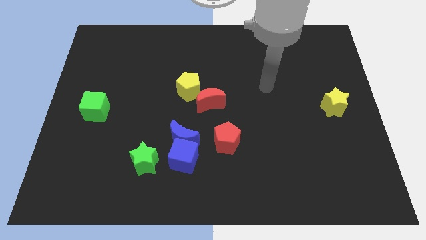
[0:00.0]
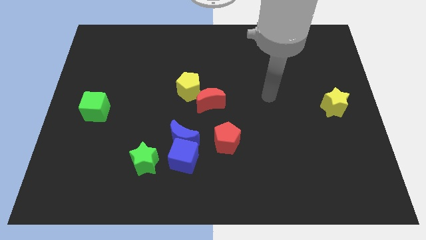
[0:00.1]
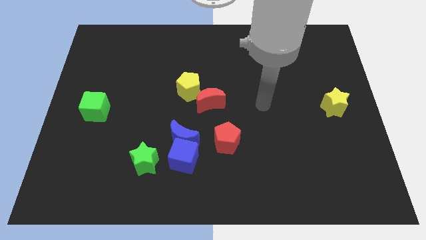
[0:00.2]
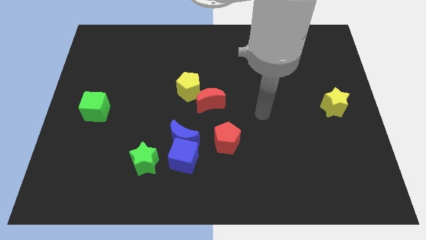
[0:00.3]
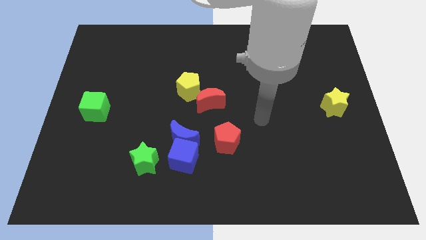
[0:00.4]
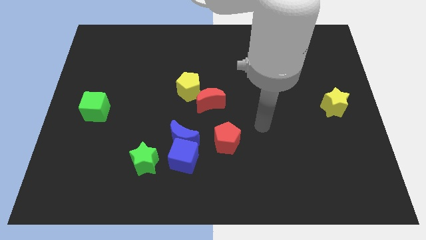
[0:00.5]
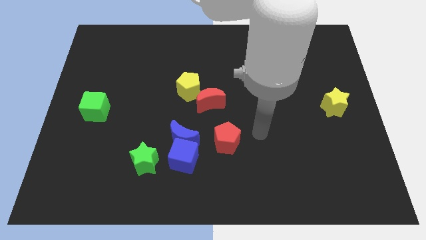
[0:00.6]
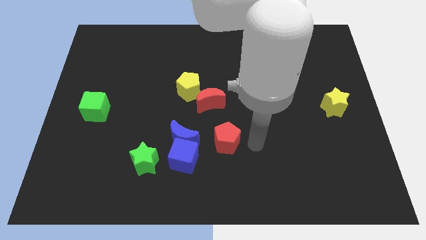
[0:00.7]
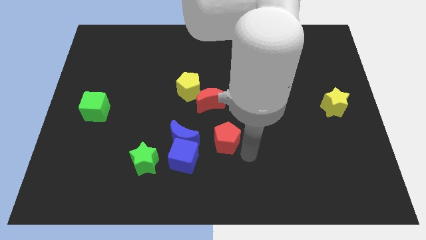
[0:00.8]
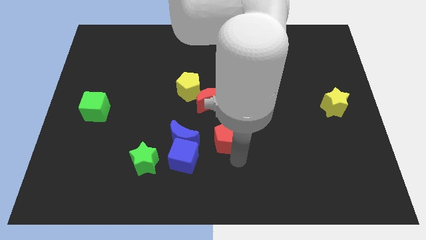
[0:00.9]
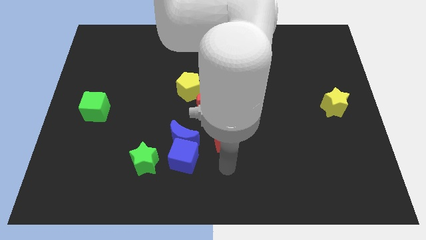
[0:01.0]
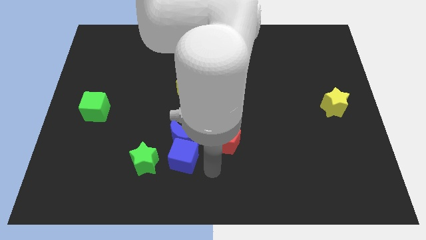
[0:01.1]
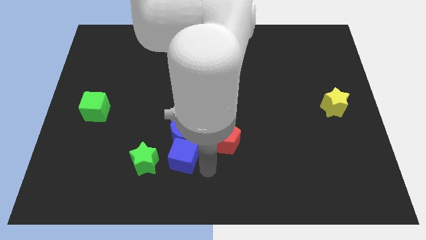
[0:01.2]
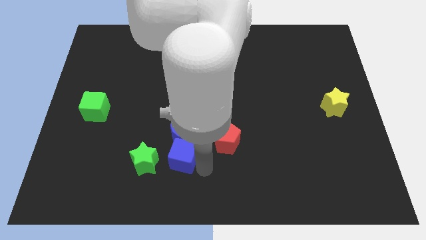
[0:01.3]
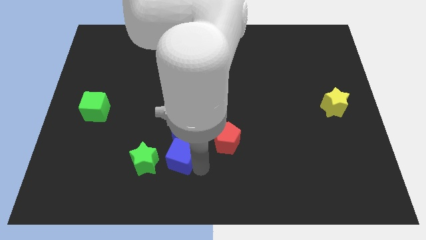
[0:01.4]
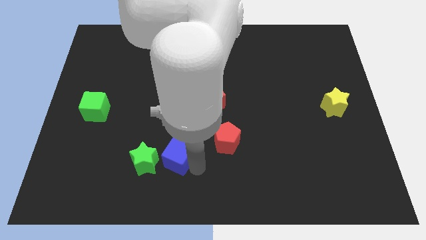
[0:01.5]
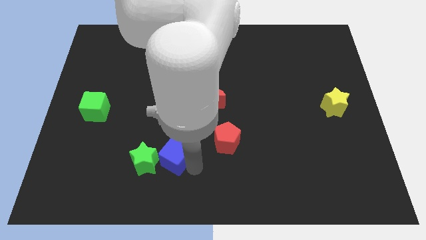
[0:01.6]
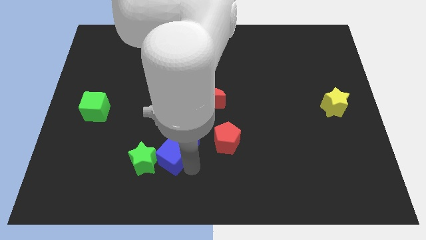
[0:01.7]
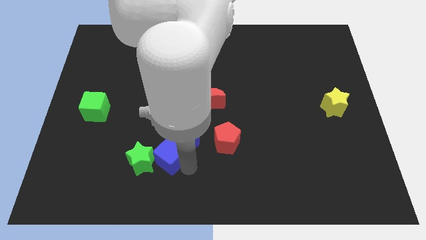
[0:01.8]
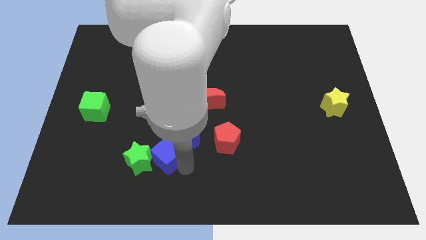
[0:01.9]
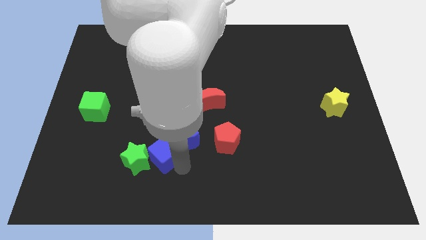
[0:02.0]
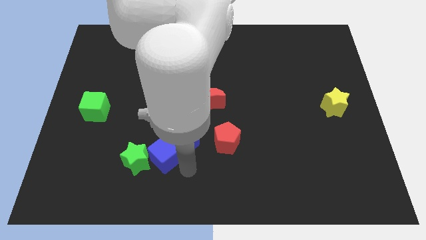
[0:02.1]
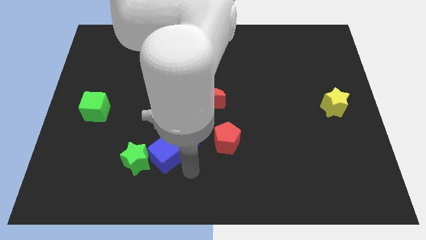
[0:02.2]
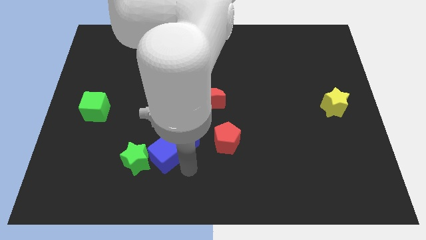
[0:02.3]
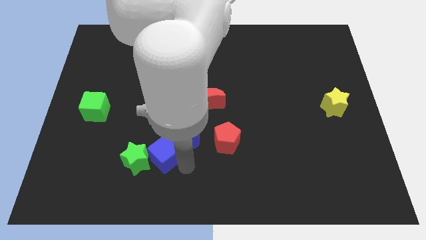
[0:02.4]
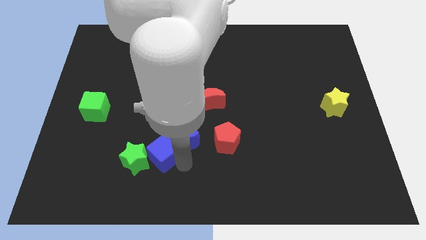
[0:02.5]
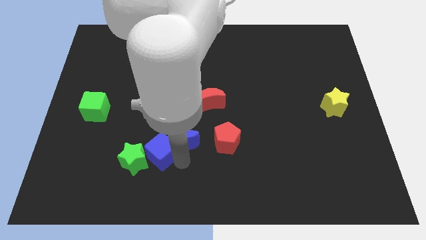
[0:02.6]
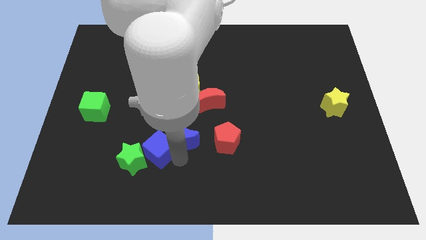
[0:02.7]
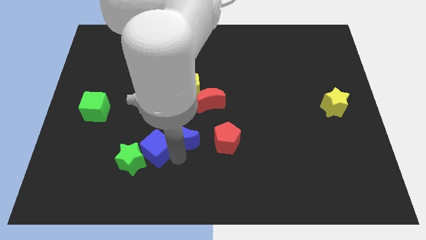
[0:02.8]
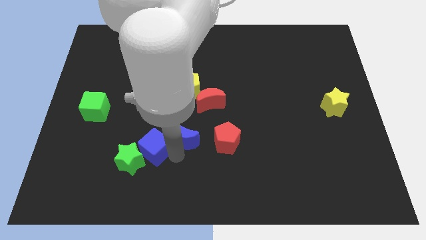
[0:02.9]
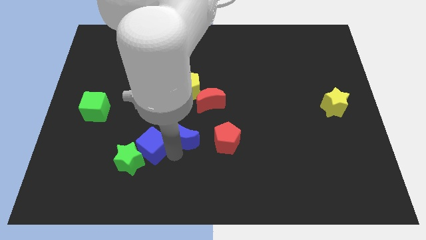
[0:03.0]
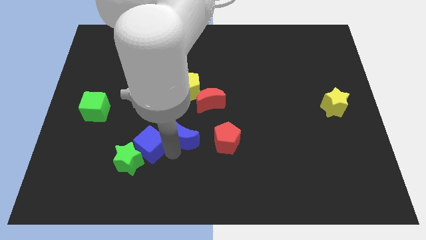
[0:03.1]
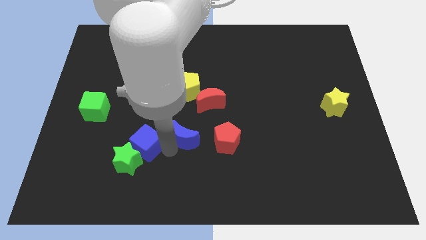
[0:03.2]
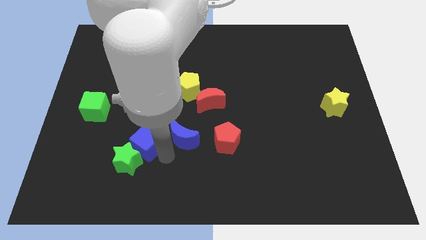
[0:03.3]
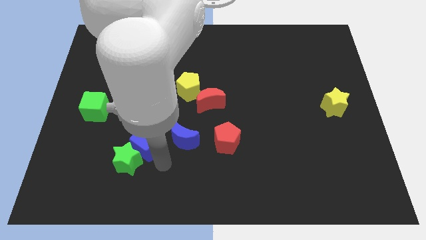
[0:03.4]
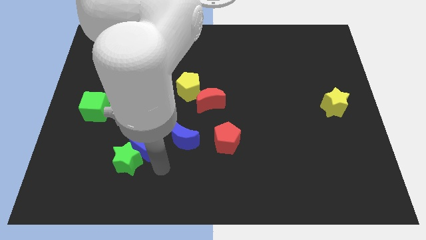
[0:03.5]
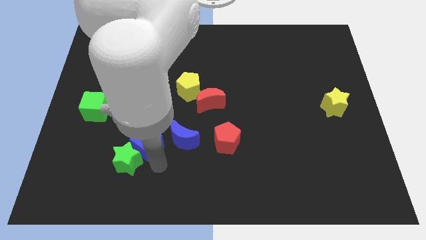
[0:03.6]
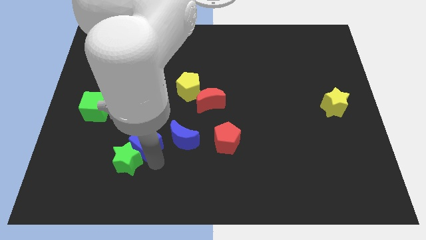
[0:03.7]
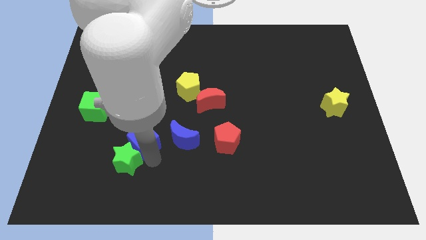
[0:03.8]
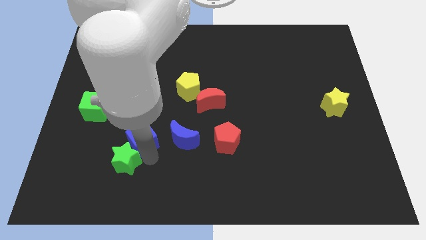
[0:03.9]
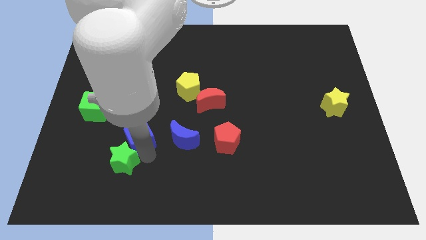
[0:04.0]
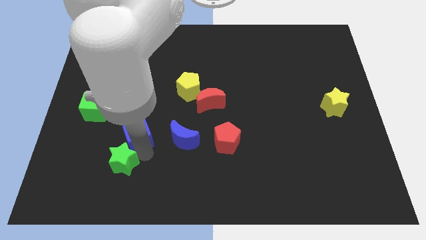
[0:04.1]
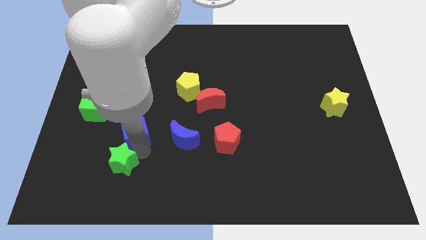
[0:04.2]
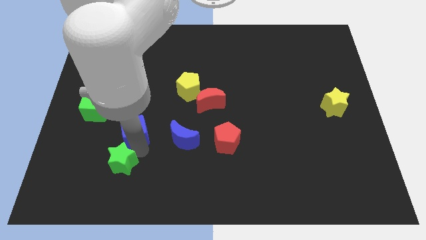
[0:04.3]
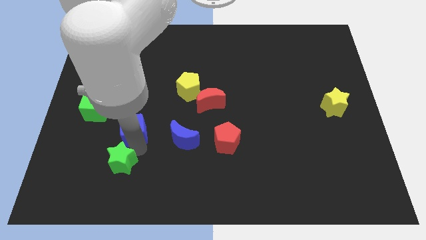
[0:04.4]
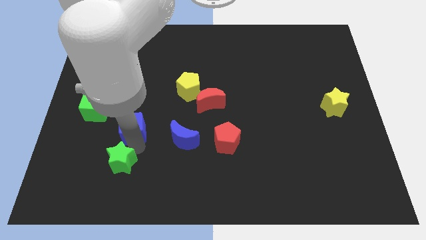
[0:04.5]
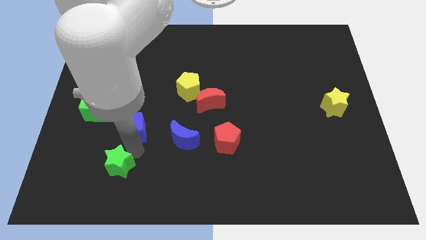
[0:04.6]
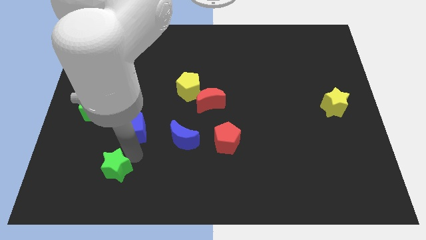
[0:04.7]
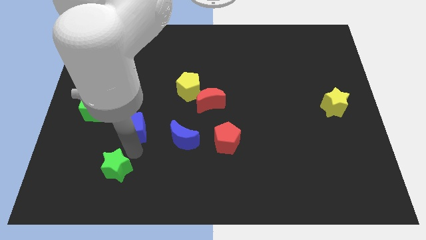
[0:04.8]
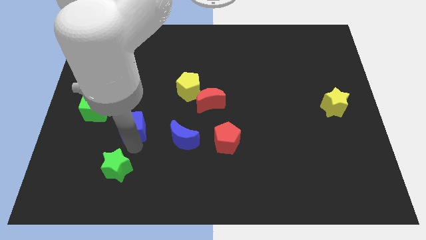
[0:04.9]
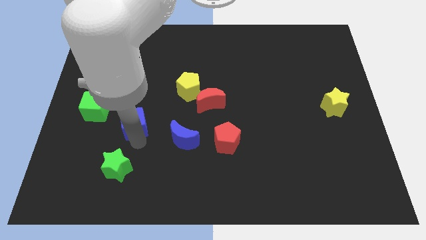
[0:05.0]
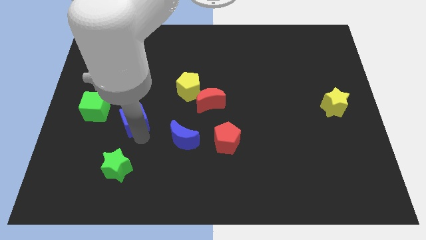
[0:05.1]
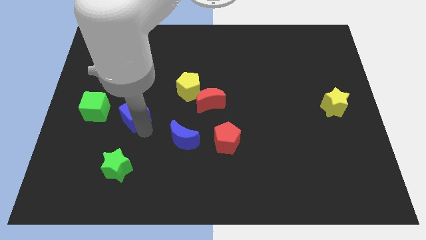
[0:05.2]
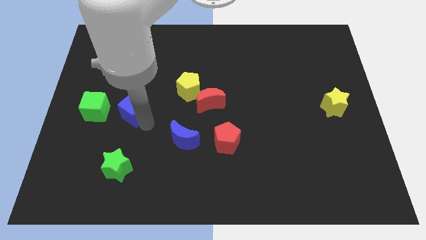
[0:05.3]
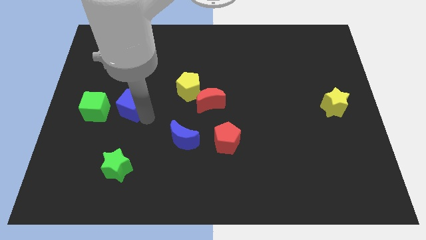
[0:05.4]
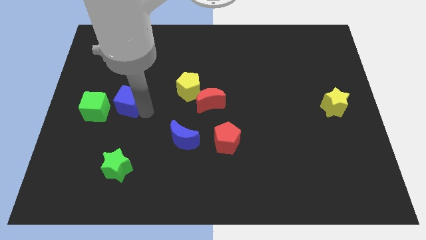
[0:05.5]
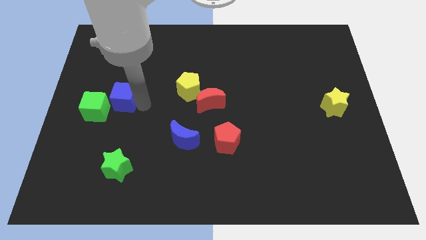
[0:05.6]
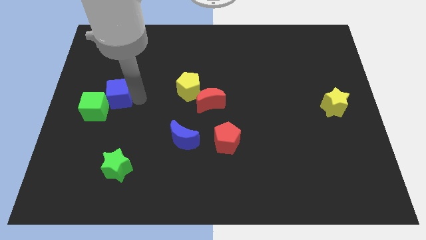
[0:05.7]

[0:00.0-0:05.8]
put the blue cube close to the green cube

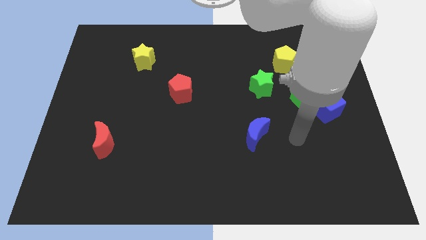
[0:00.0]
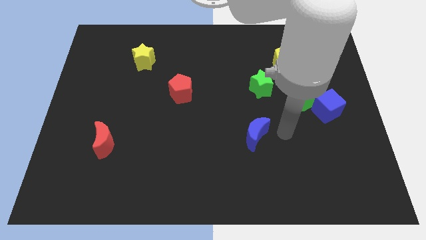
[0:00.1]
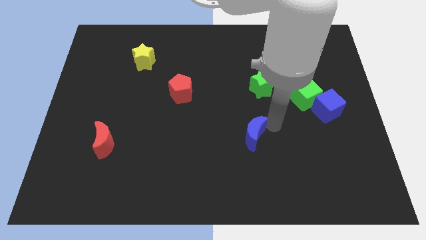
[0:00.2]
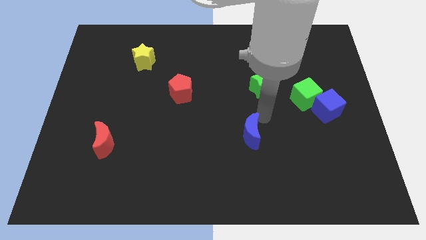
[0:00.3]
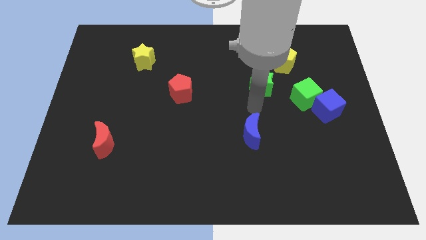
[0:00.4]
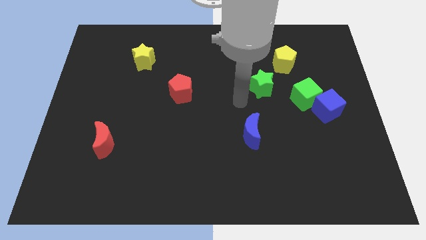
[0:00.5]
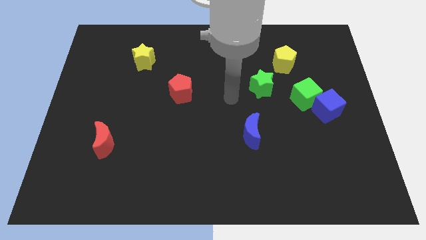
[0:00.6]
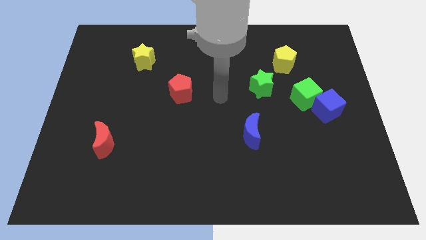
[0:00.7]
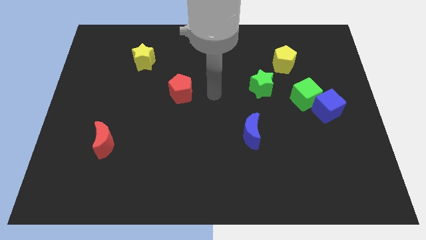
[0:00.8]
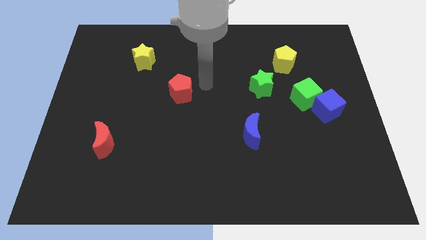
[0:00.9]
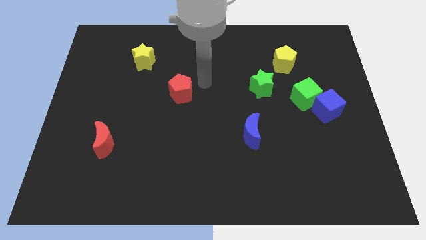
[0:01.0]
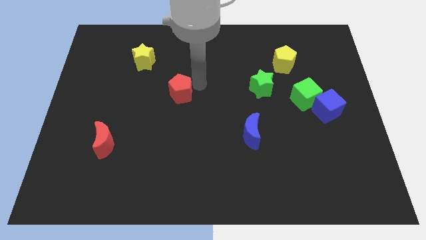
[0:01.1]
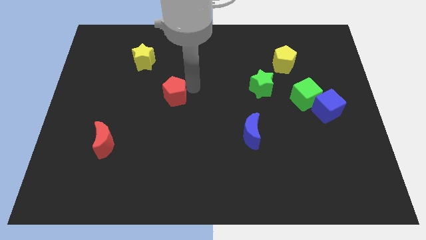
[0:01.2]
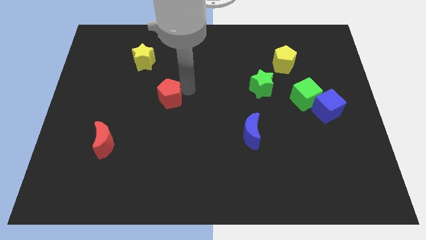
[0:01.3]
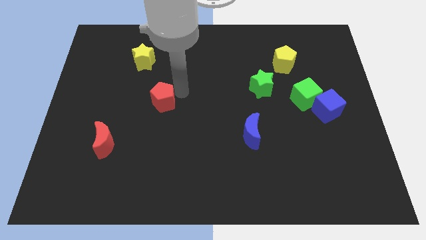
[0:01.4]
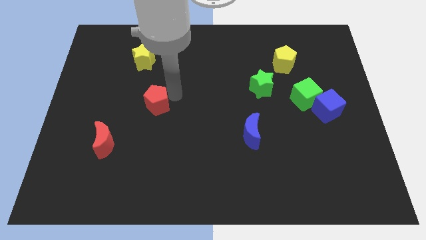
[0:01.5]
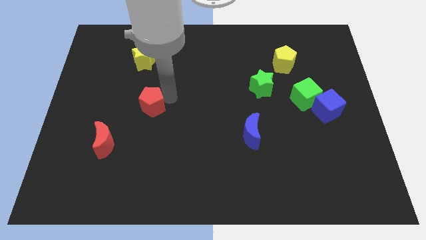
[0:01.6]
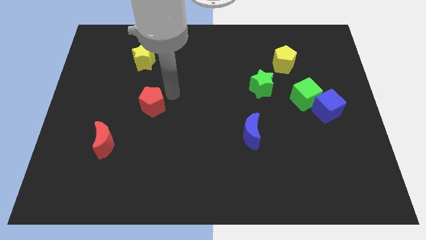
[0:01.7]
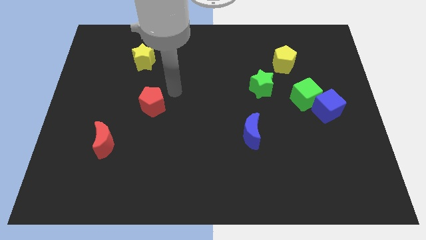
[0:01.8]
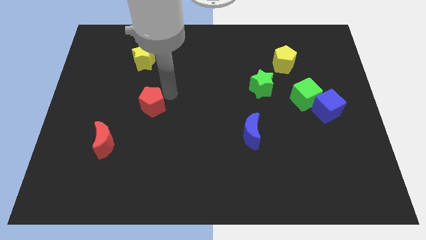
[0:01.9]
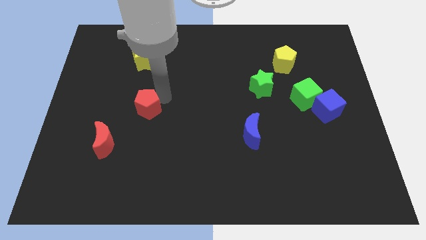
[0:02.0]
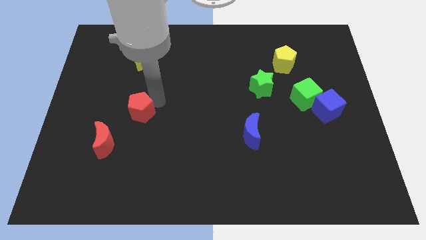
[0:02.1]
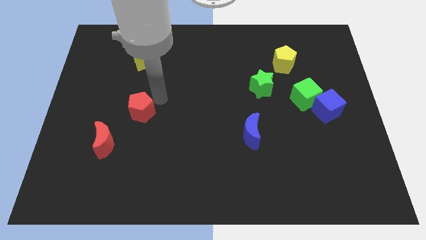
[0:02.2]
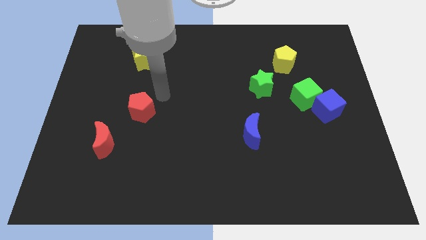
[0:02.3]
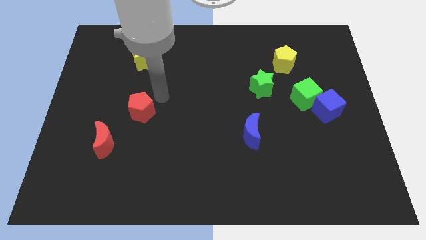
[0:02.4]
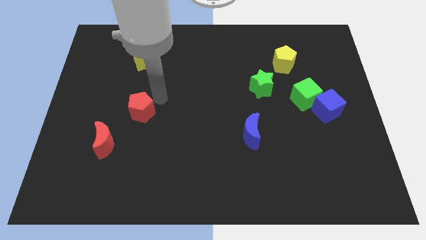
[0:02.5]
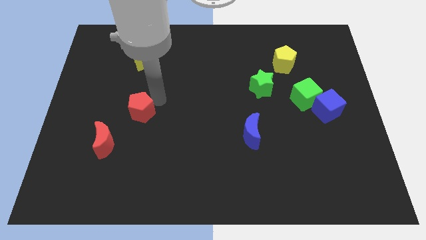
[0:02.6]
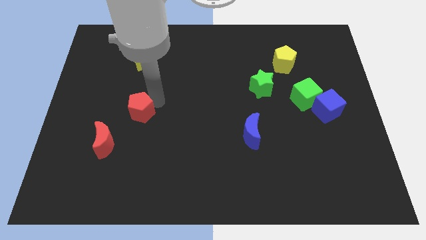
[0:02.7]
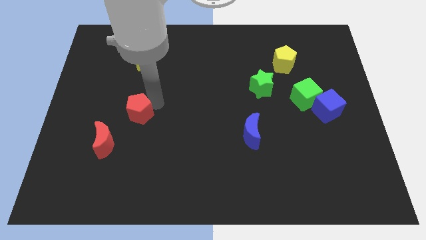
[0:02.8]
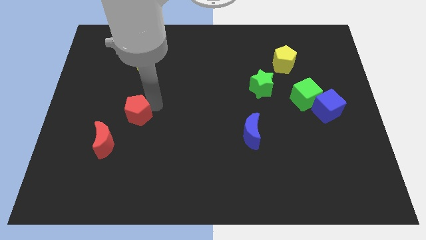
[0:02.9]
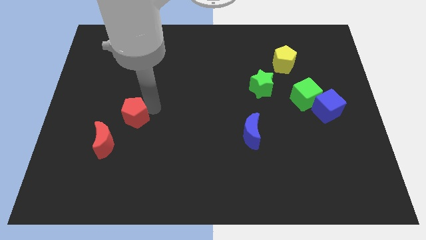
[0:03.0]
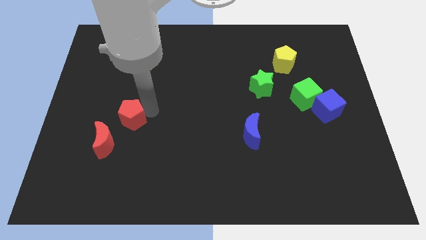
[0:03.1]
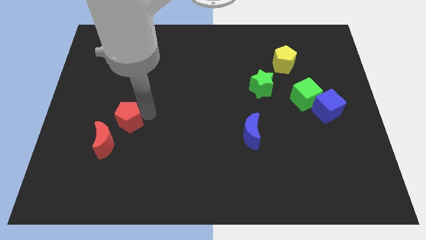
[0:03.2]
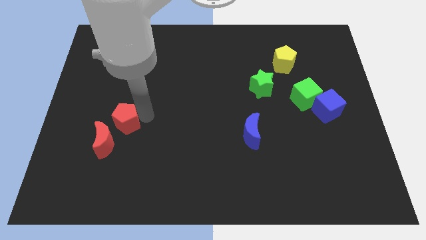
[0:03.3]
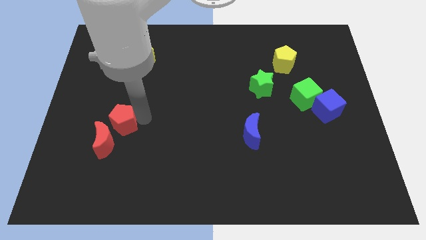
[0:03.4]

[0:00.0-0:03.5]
put the red pentagon close to the red moon
